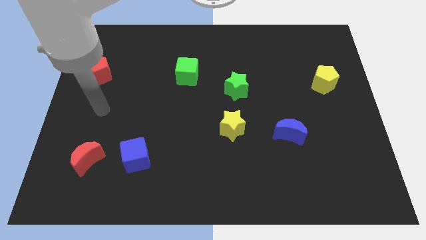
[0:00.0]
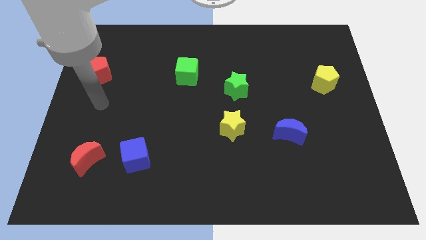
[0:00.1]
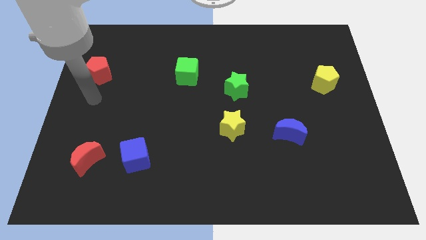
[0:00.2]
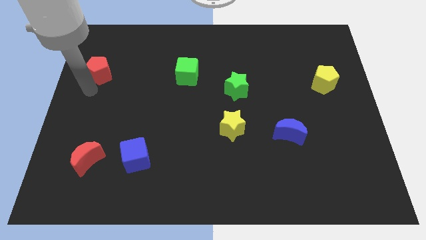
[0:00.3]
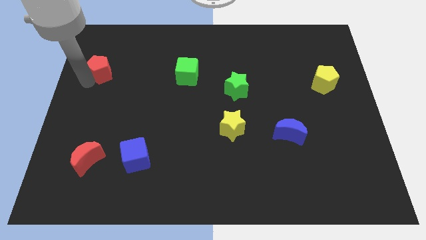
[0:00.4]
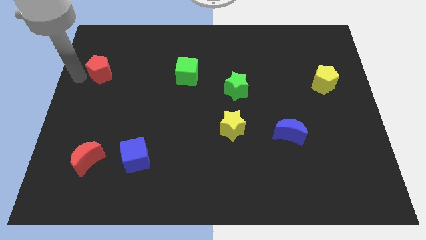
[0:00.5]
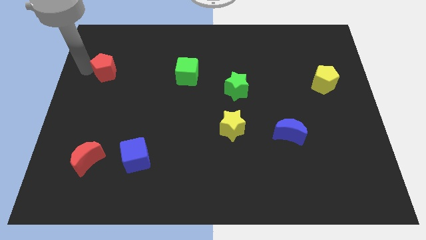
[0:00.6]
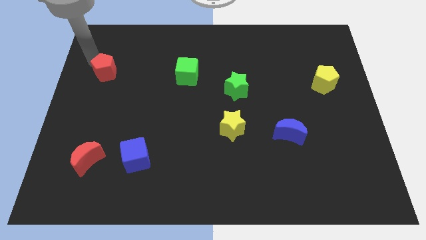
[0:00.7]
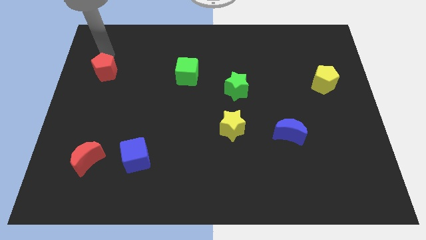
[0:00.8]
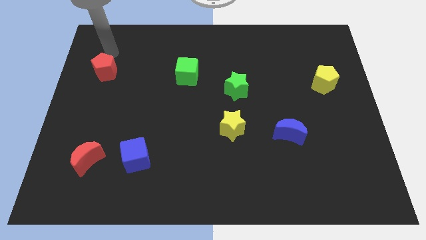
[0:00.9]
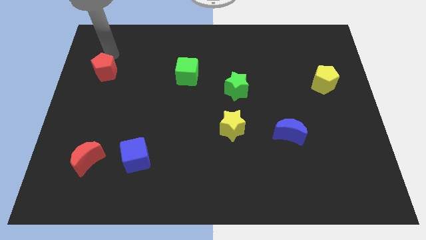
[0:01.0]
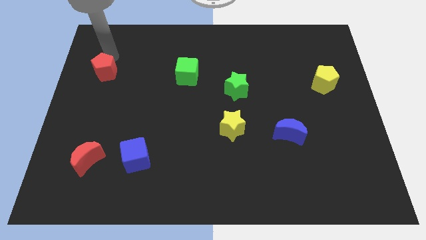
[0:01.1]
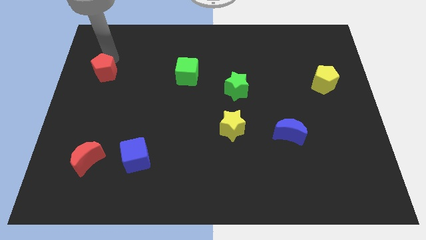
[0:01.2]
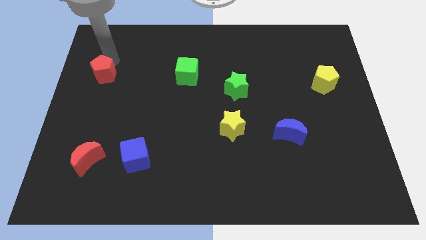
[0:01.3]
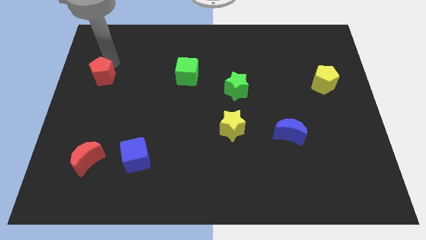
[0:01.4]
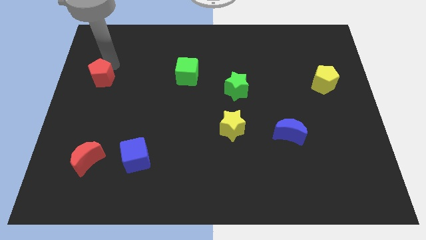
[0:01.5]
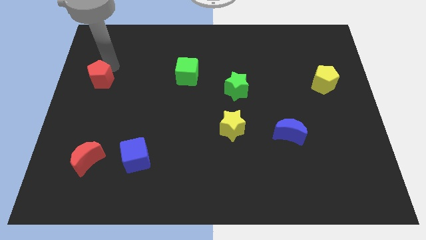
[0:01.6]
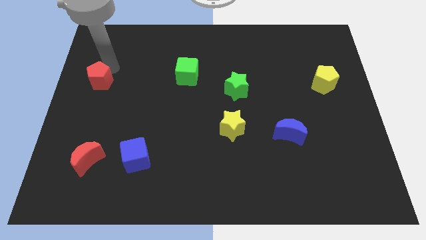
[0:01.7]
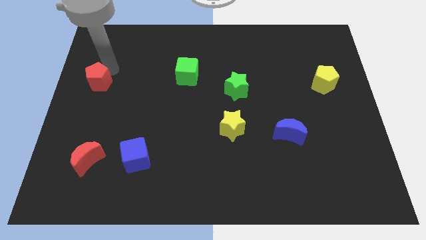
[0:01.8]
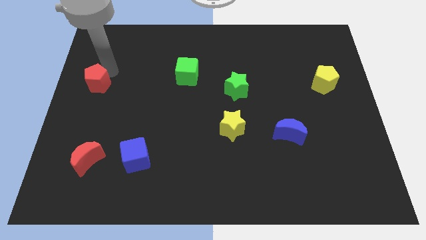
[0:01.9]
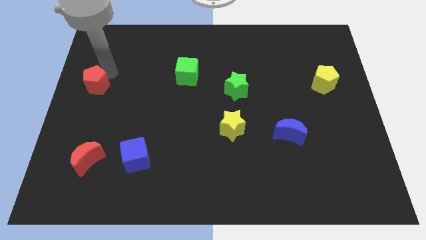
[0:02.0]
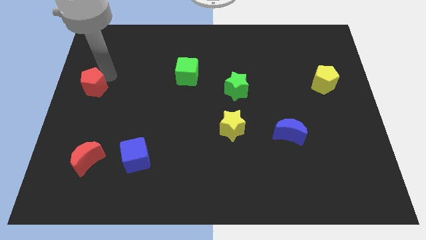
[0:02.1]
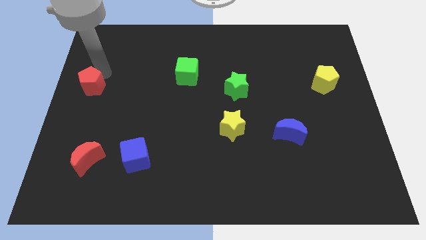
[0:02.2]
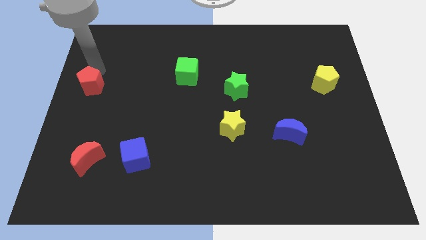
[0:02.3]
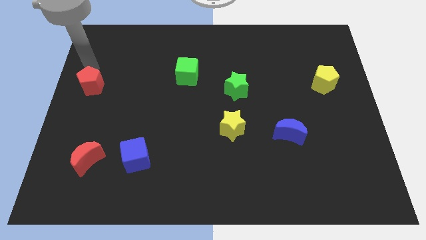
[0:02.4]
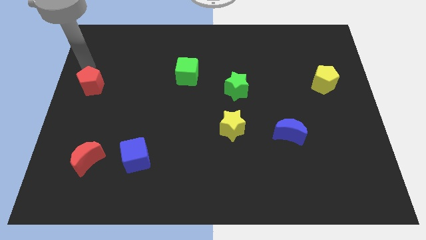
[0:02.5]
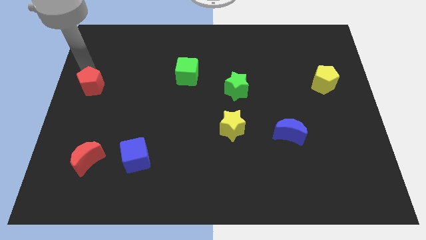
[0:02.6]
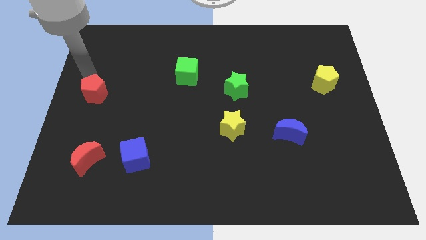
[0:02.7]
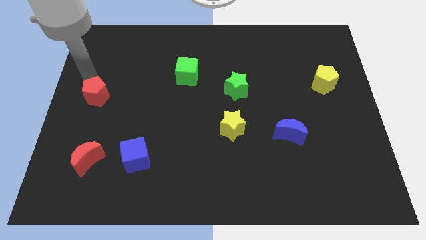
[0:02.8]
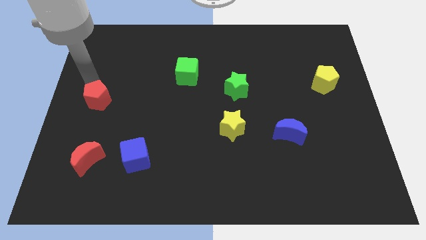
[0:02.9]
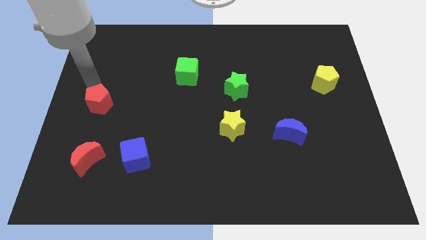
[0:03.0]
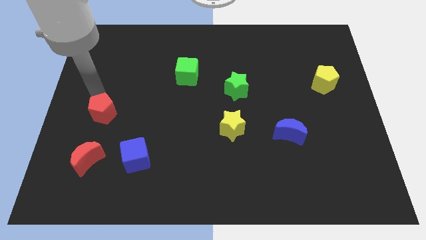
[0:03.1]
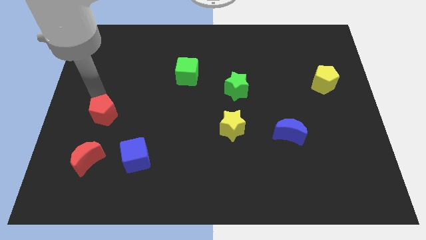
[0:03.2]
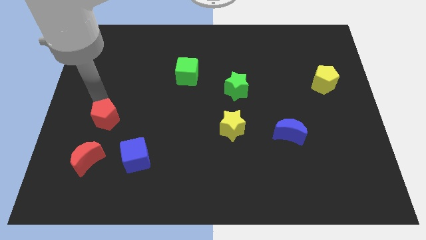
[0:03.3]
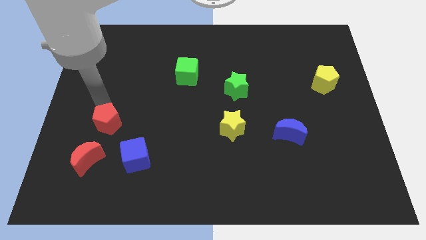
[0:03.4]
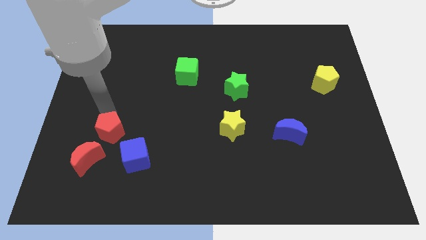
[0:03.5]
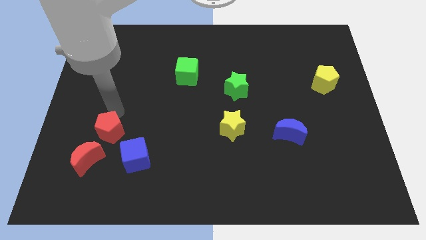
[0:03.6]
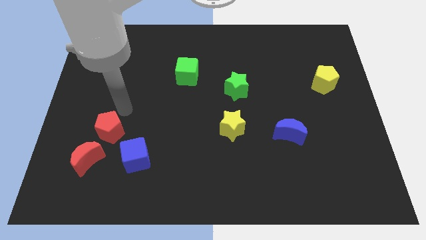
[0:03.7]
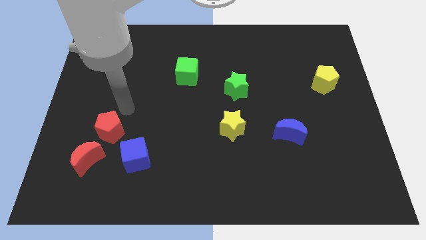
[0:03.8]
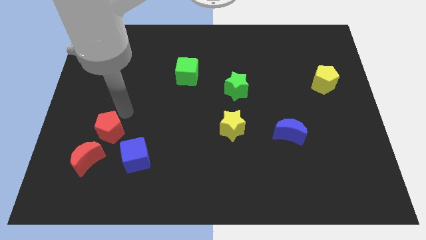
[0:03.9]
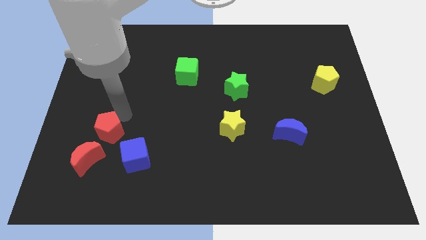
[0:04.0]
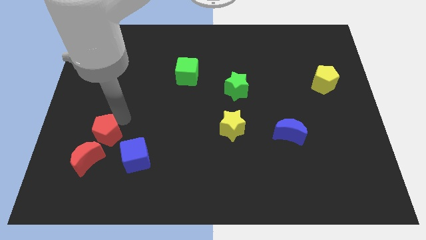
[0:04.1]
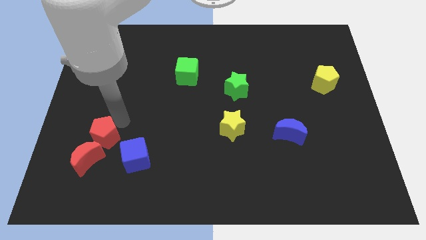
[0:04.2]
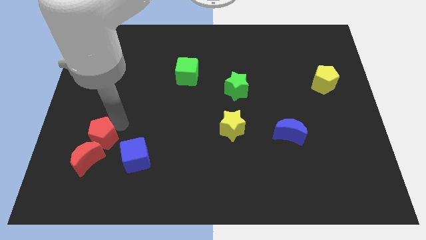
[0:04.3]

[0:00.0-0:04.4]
put the red pentagon to the red moon

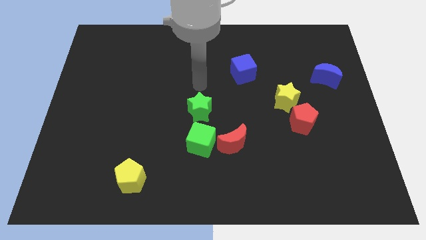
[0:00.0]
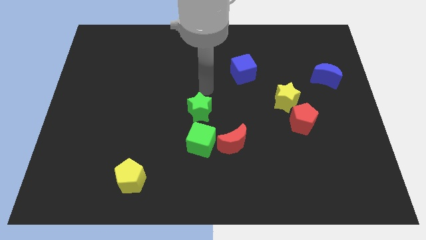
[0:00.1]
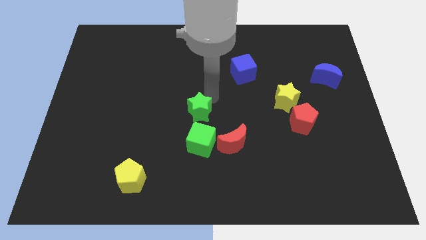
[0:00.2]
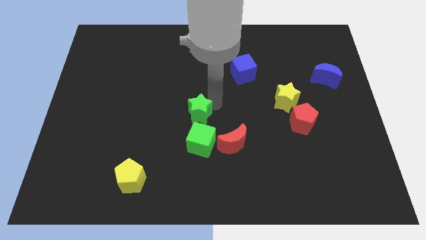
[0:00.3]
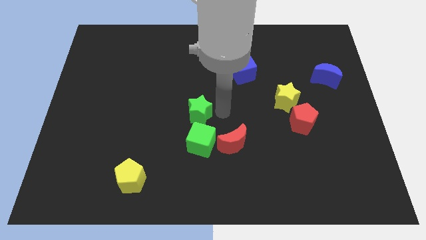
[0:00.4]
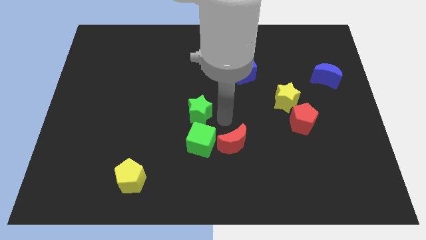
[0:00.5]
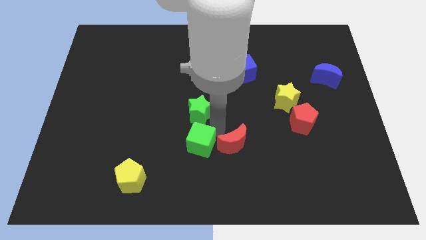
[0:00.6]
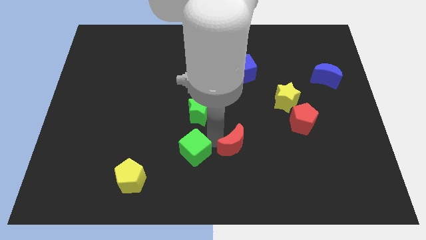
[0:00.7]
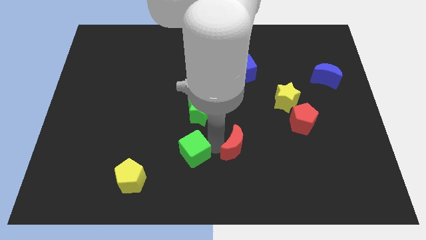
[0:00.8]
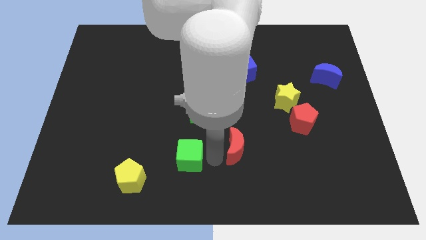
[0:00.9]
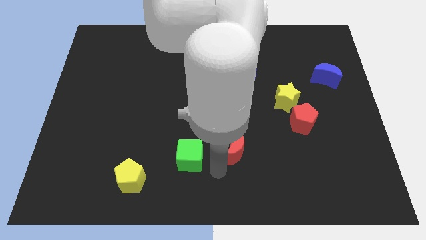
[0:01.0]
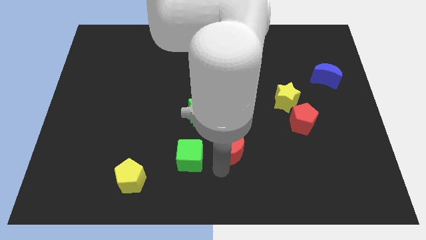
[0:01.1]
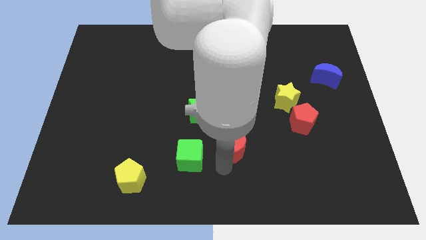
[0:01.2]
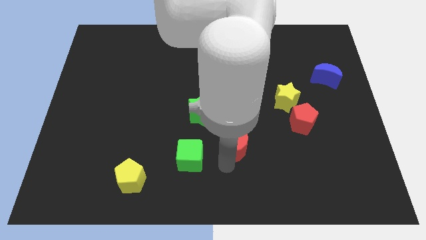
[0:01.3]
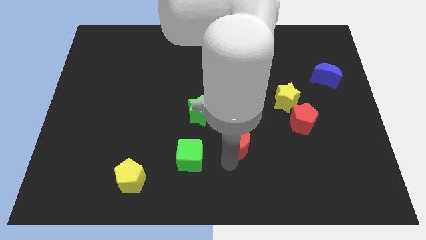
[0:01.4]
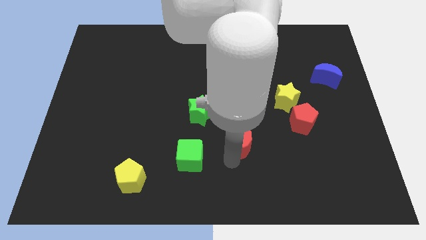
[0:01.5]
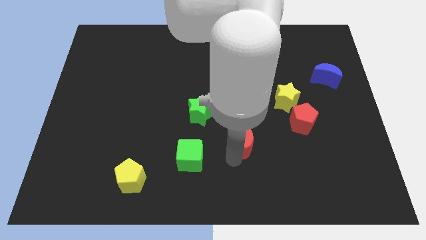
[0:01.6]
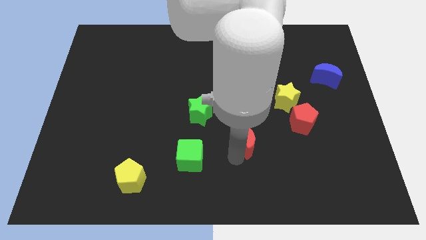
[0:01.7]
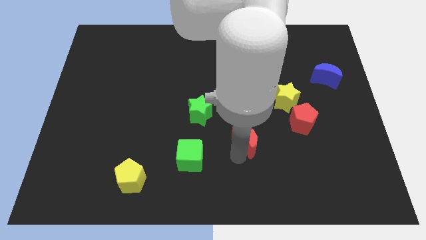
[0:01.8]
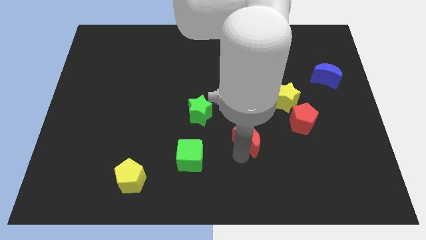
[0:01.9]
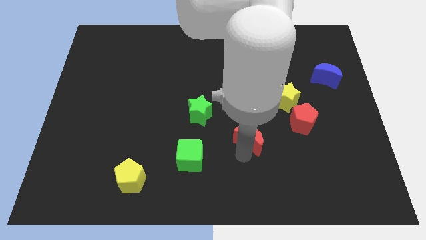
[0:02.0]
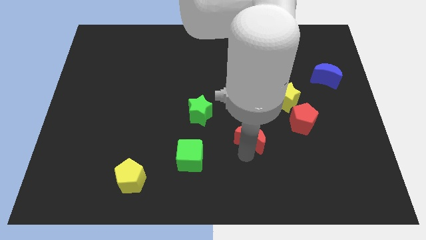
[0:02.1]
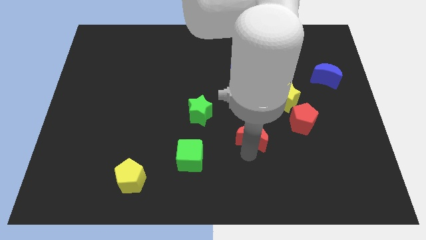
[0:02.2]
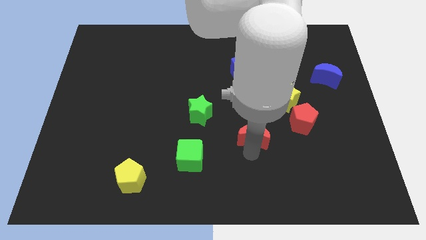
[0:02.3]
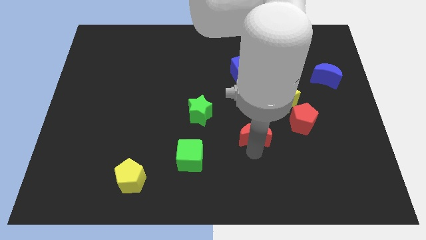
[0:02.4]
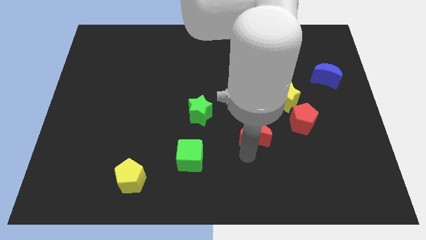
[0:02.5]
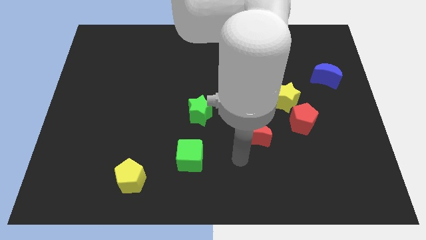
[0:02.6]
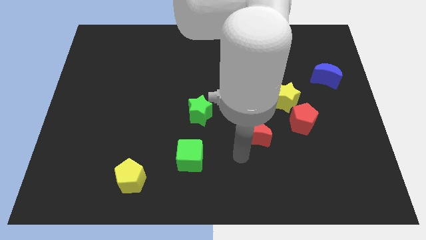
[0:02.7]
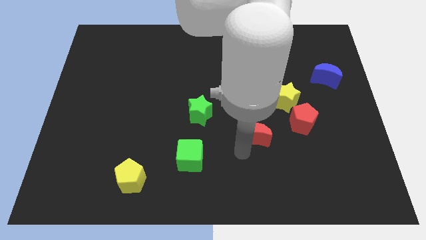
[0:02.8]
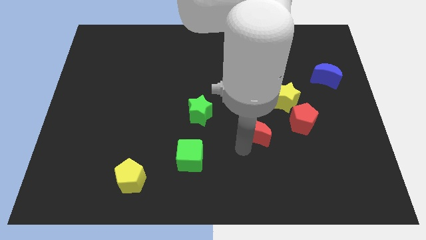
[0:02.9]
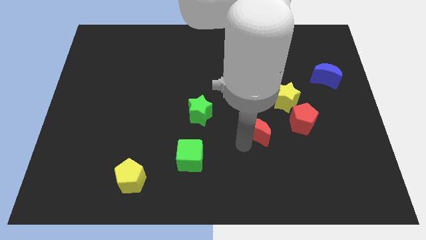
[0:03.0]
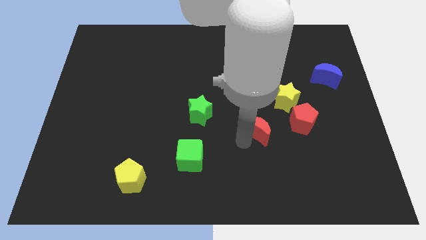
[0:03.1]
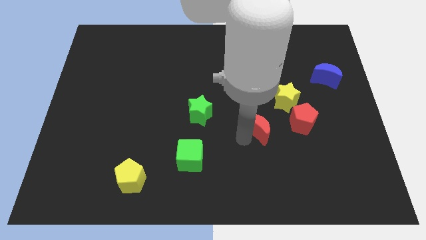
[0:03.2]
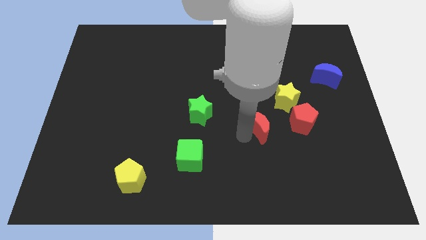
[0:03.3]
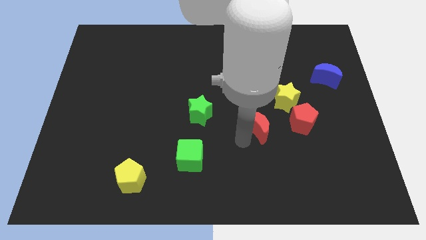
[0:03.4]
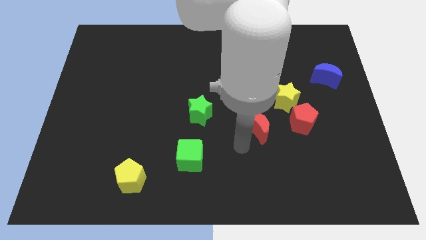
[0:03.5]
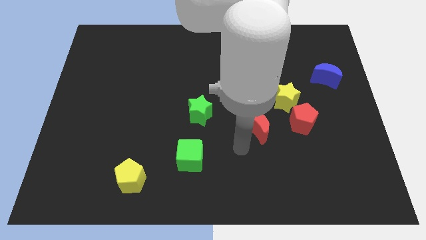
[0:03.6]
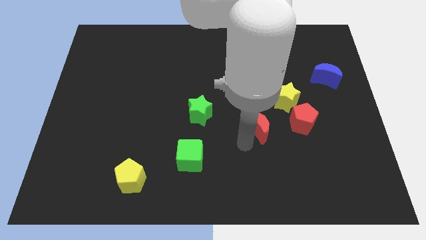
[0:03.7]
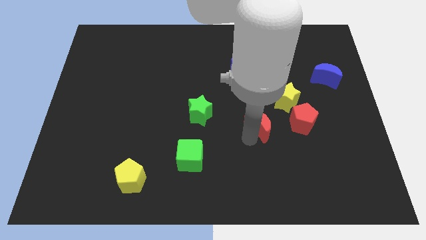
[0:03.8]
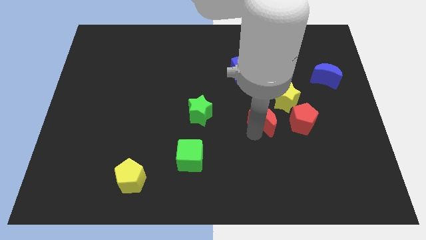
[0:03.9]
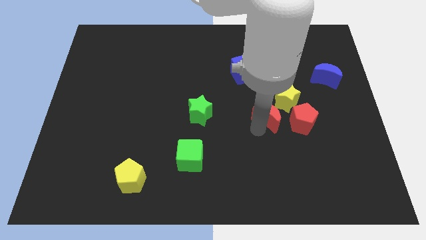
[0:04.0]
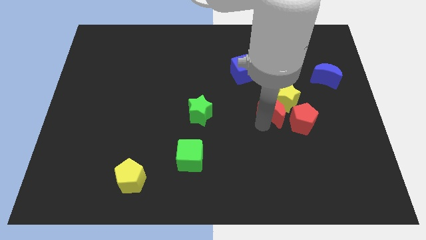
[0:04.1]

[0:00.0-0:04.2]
slide the red moon next to the yellow star
